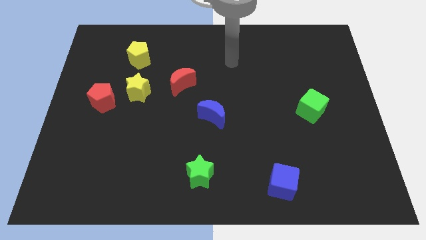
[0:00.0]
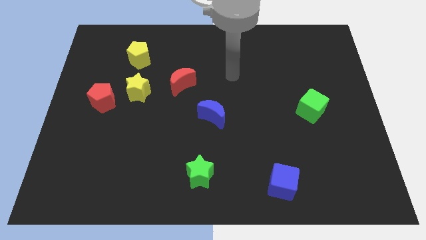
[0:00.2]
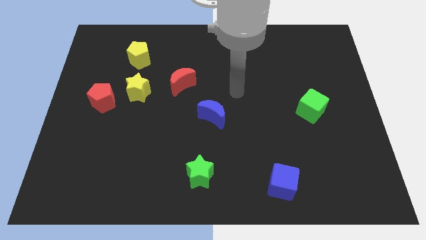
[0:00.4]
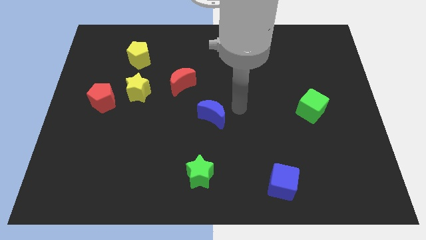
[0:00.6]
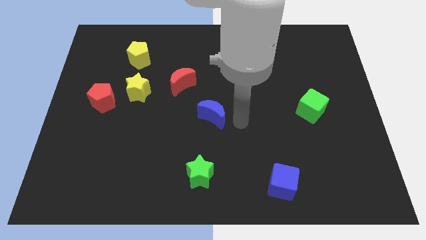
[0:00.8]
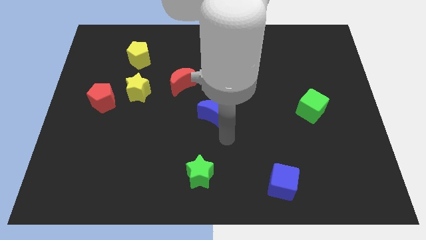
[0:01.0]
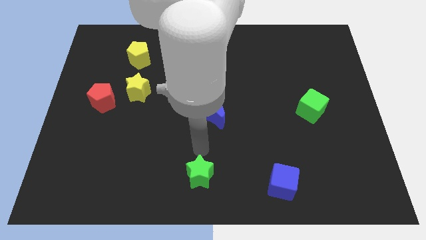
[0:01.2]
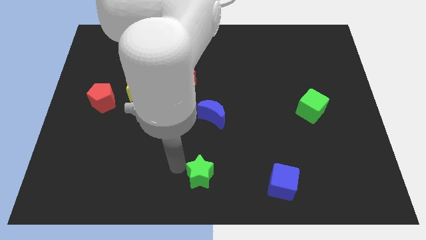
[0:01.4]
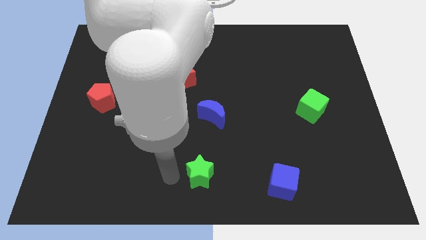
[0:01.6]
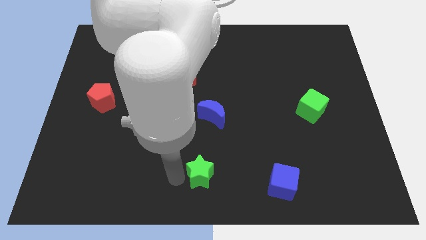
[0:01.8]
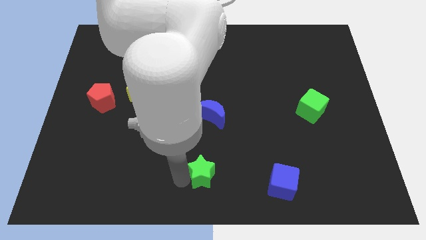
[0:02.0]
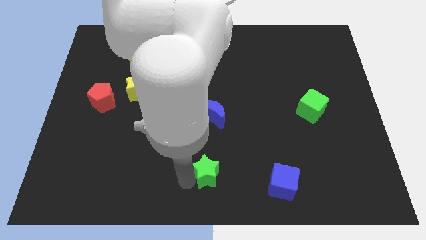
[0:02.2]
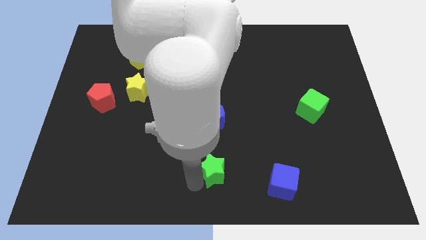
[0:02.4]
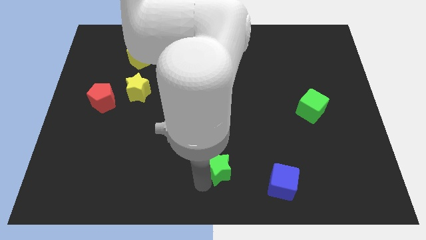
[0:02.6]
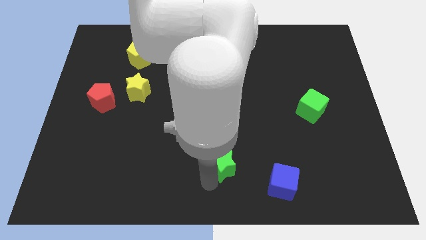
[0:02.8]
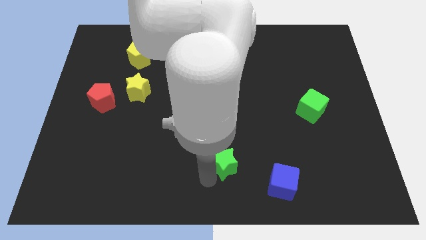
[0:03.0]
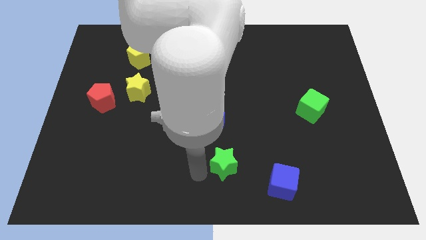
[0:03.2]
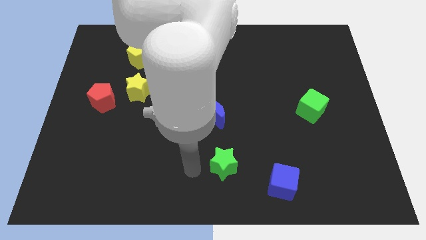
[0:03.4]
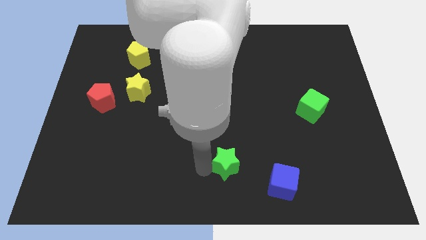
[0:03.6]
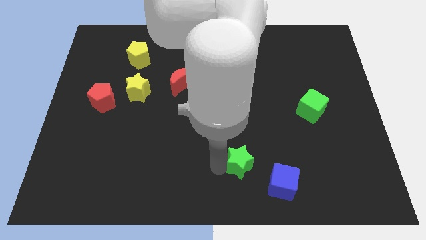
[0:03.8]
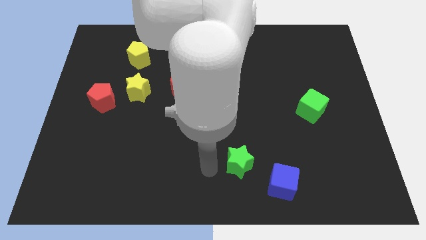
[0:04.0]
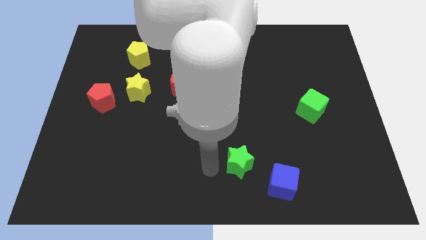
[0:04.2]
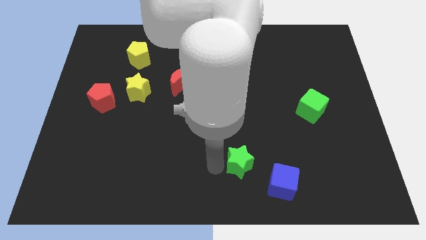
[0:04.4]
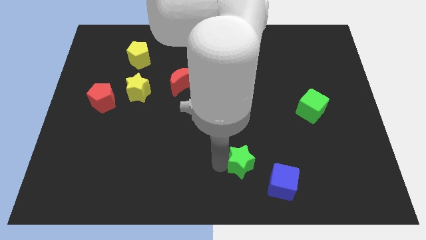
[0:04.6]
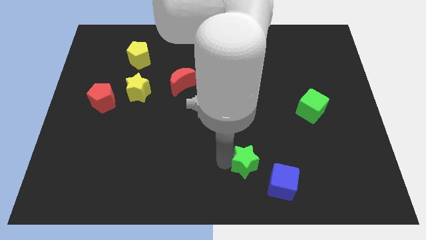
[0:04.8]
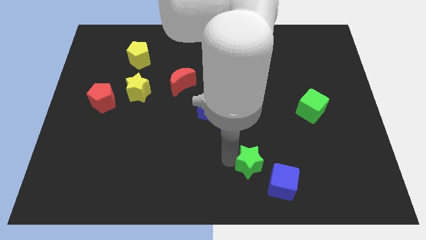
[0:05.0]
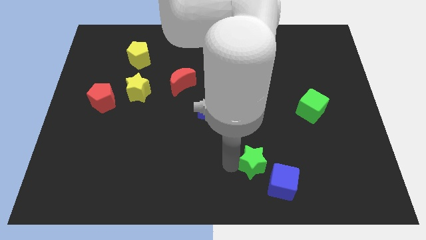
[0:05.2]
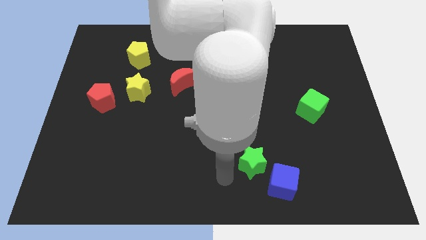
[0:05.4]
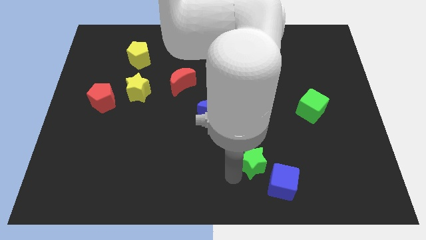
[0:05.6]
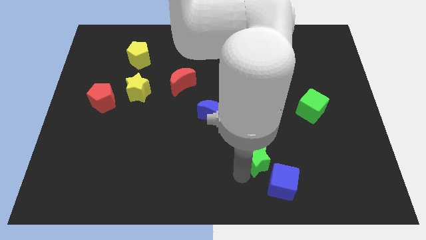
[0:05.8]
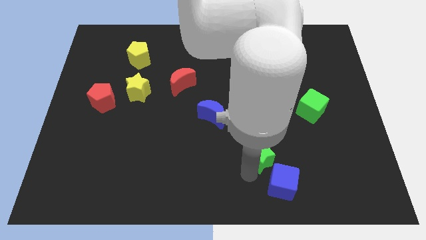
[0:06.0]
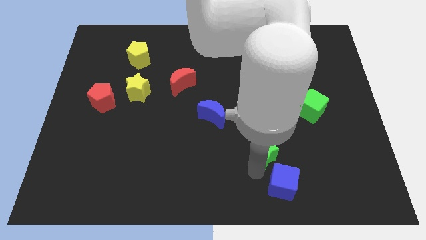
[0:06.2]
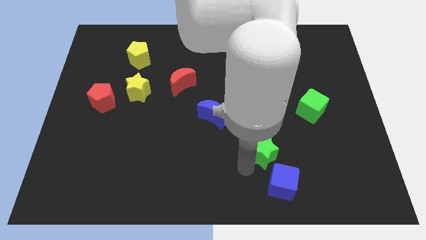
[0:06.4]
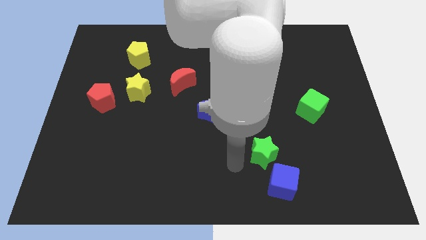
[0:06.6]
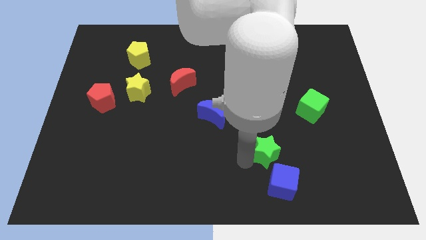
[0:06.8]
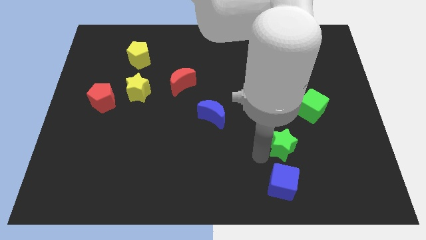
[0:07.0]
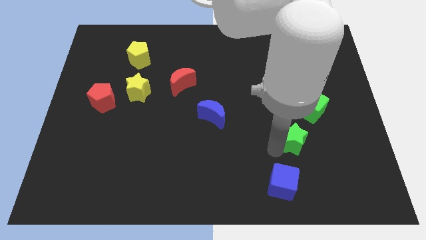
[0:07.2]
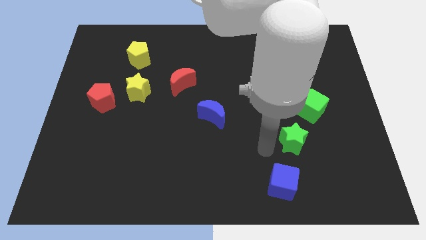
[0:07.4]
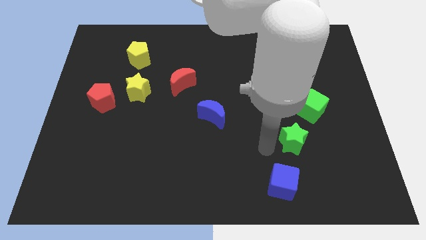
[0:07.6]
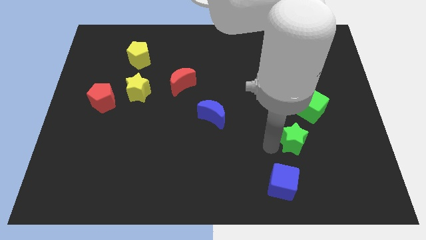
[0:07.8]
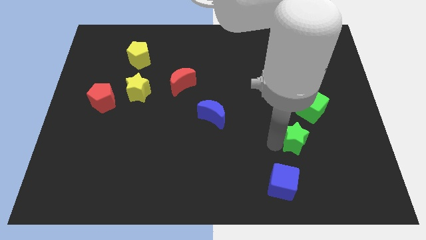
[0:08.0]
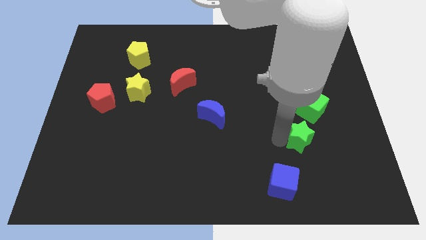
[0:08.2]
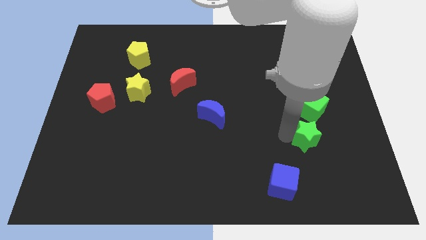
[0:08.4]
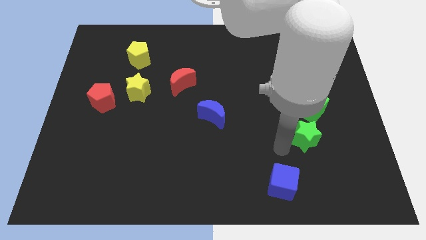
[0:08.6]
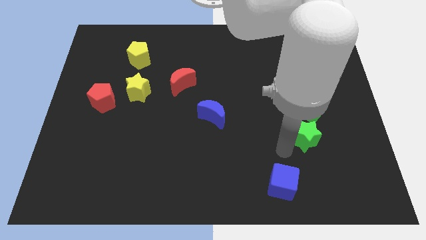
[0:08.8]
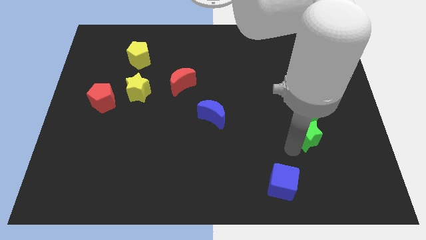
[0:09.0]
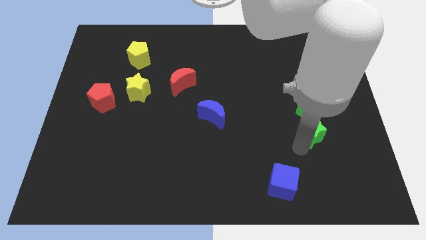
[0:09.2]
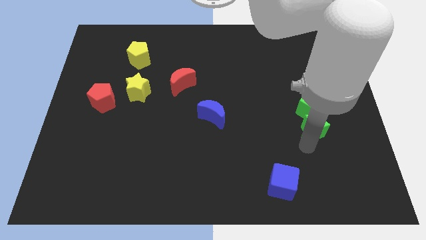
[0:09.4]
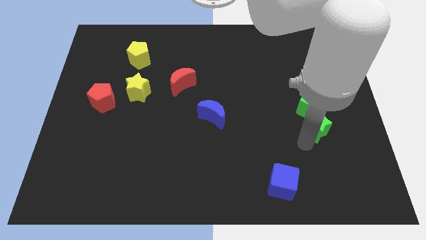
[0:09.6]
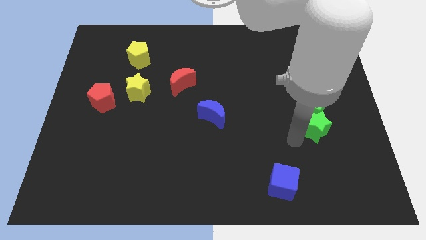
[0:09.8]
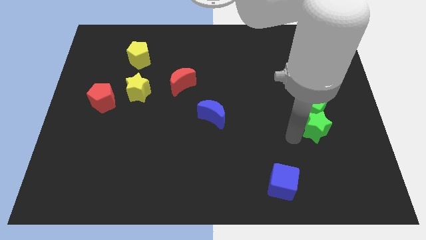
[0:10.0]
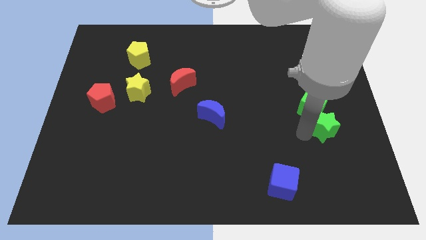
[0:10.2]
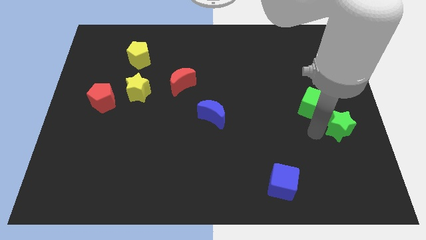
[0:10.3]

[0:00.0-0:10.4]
put the green star to the right side of the board

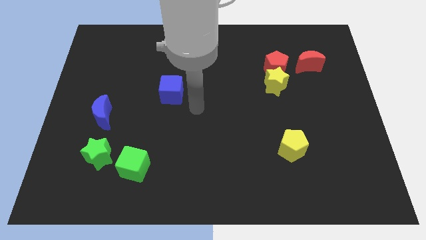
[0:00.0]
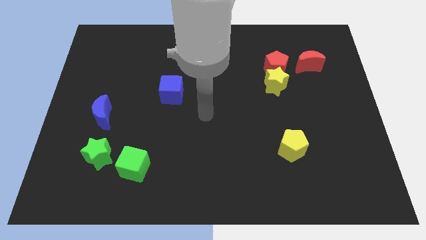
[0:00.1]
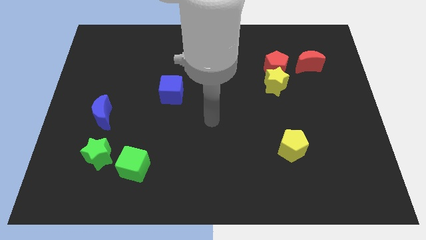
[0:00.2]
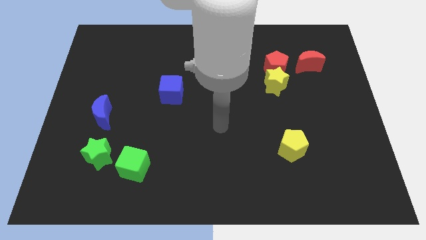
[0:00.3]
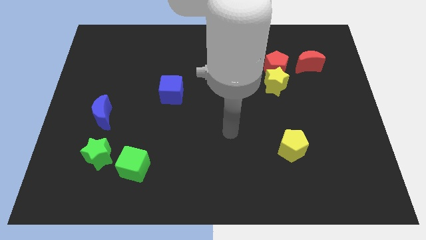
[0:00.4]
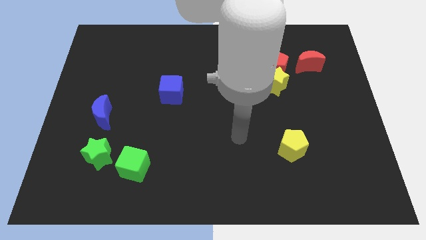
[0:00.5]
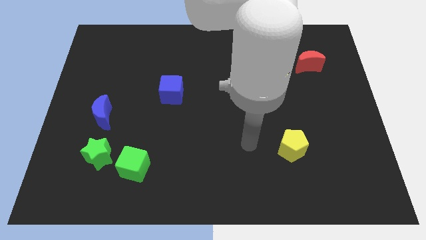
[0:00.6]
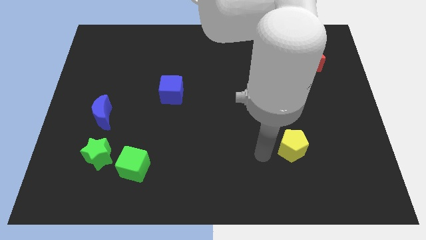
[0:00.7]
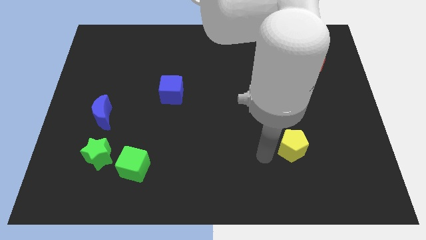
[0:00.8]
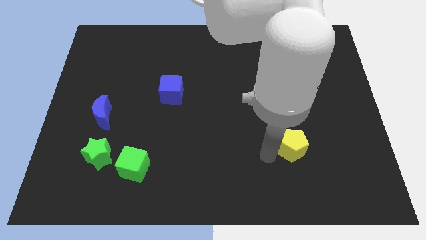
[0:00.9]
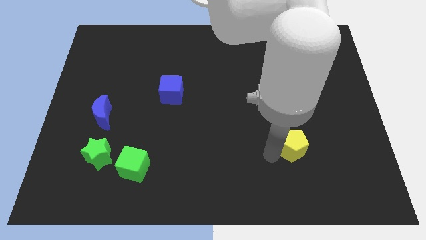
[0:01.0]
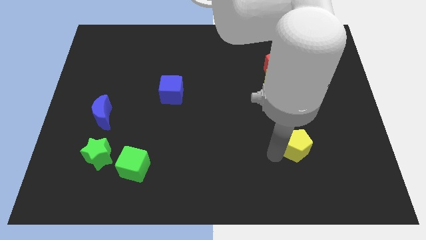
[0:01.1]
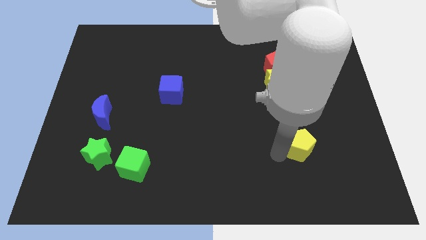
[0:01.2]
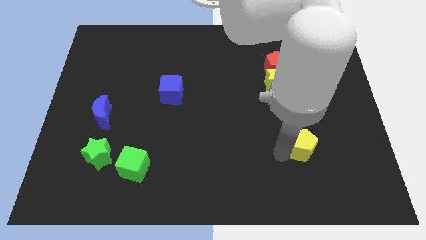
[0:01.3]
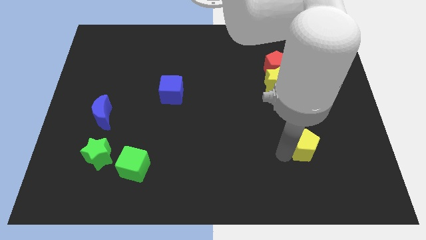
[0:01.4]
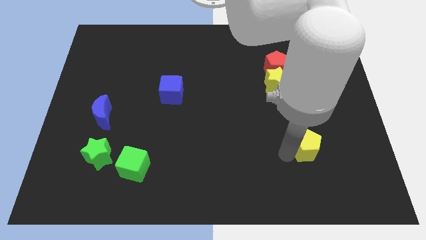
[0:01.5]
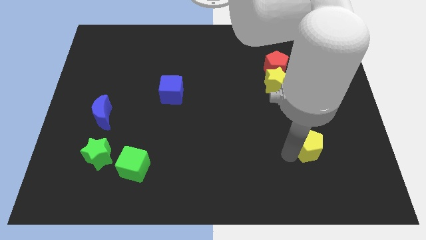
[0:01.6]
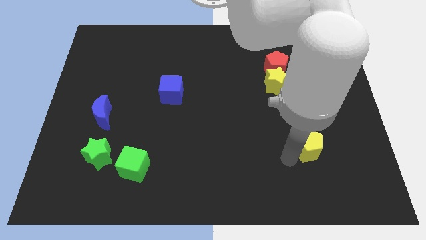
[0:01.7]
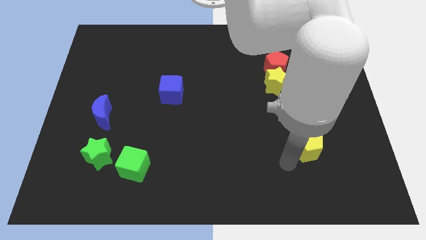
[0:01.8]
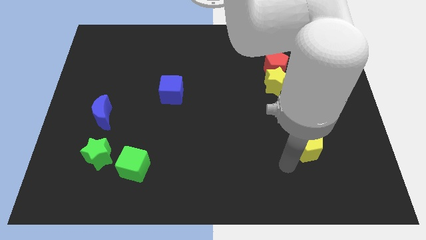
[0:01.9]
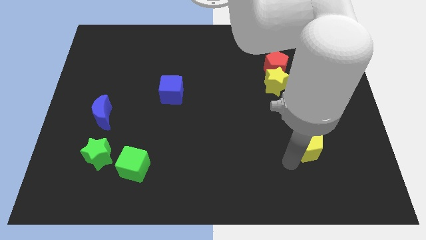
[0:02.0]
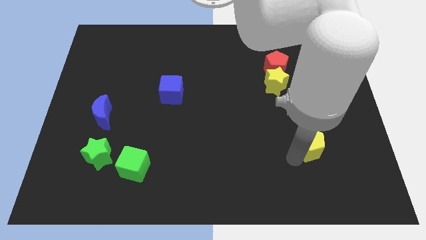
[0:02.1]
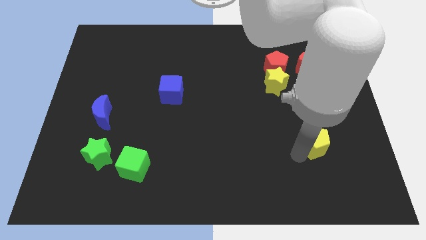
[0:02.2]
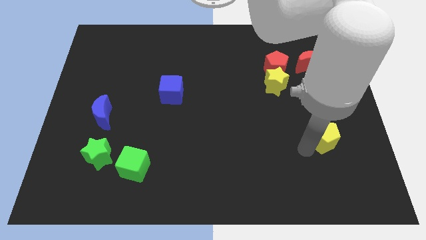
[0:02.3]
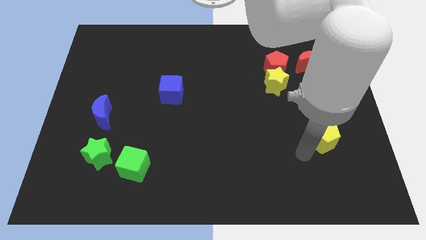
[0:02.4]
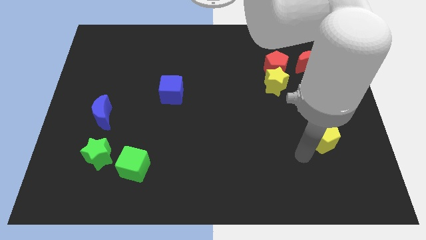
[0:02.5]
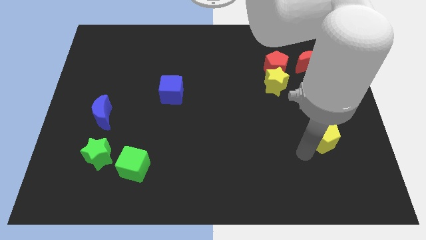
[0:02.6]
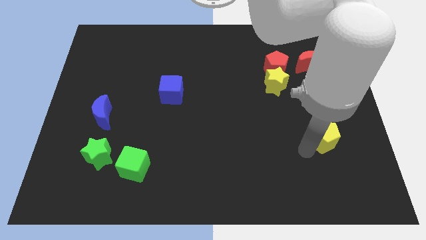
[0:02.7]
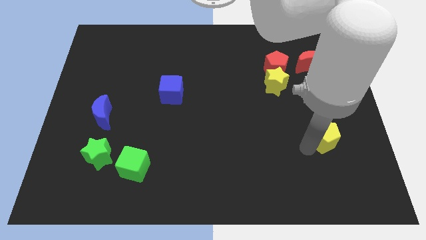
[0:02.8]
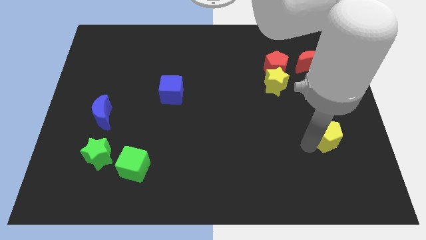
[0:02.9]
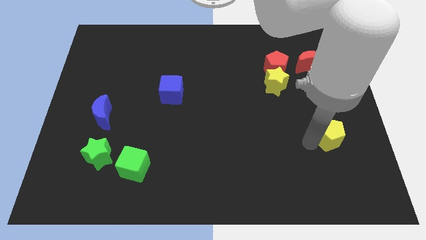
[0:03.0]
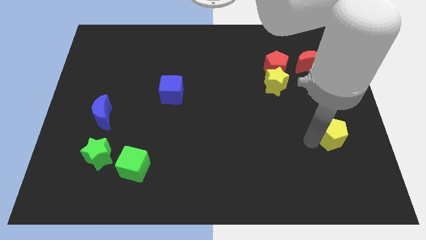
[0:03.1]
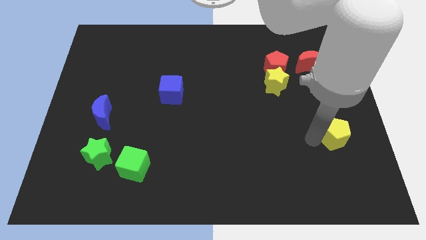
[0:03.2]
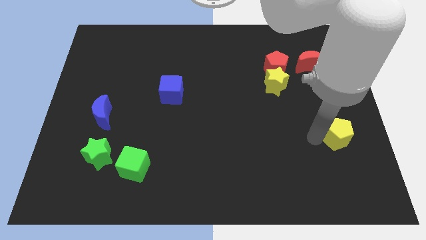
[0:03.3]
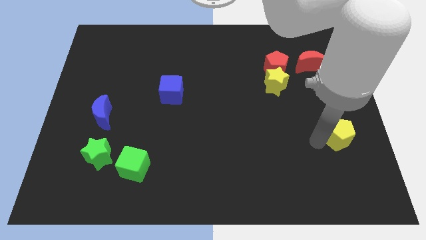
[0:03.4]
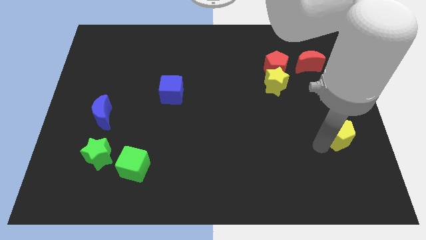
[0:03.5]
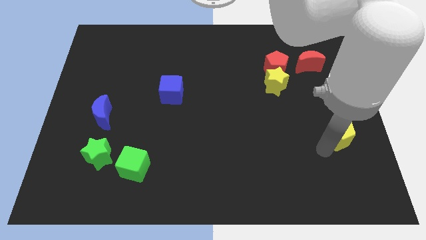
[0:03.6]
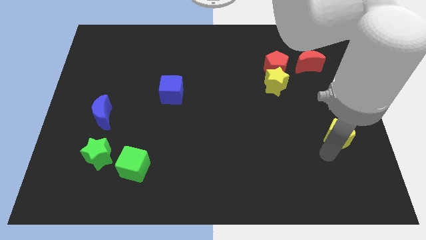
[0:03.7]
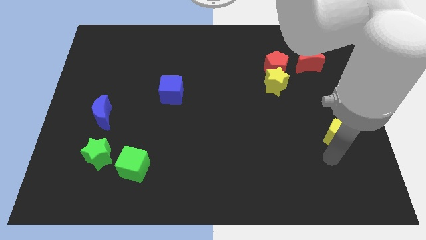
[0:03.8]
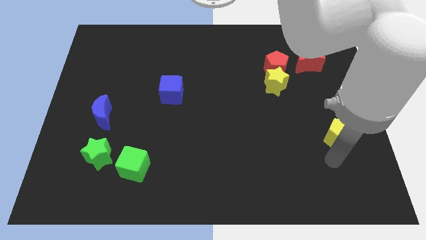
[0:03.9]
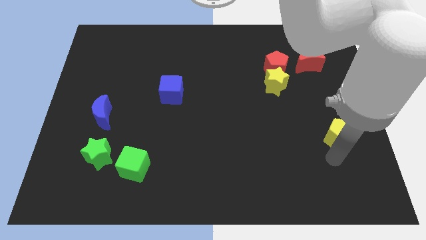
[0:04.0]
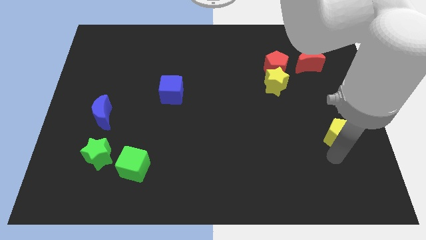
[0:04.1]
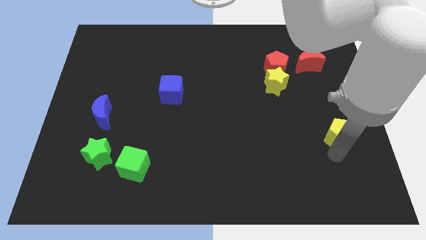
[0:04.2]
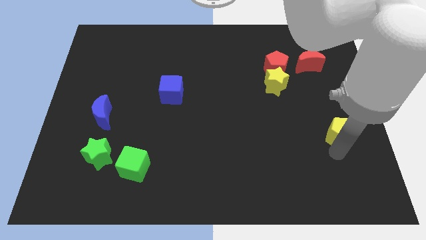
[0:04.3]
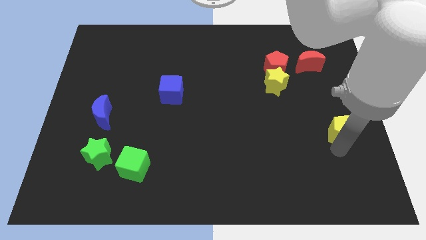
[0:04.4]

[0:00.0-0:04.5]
push the yellow pentagon to the center right
